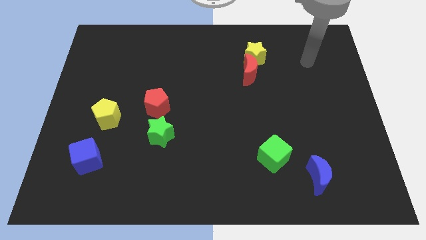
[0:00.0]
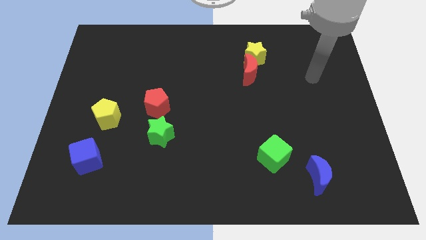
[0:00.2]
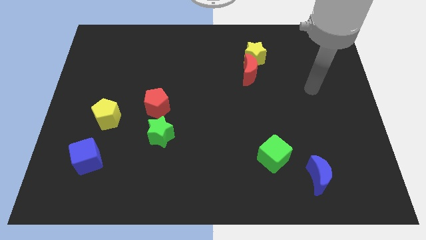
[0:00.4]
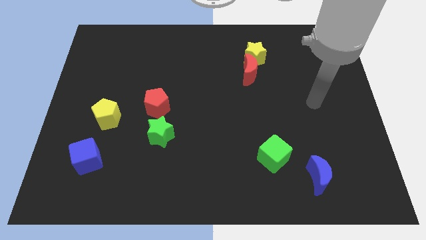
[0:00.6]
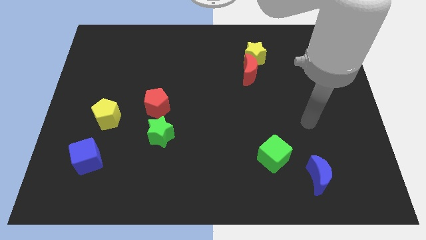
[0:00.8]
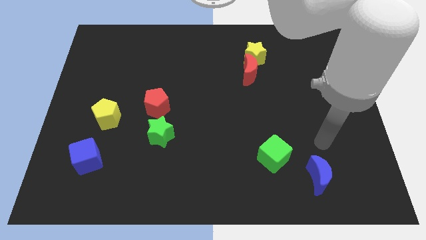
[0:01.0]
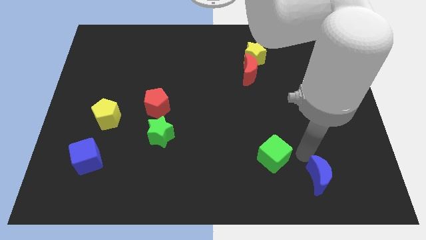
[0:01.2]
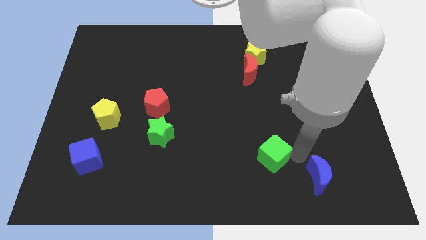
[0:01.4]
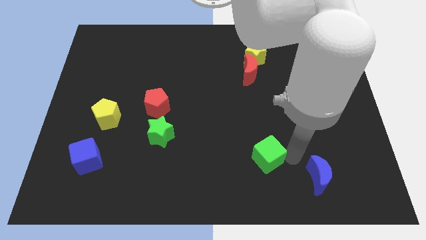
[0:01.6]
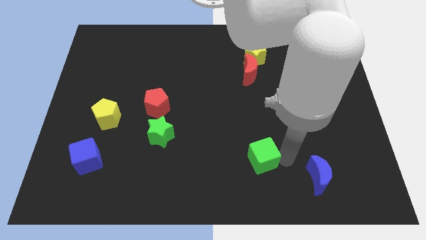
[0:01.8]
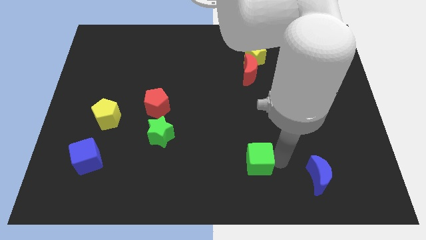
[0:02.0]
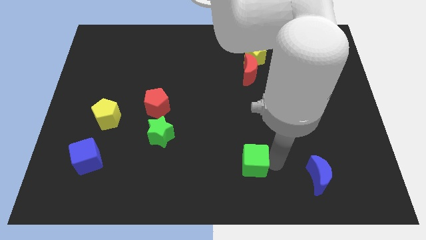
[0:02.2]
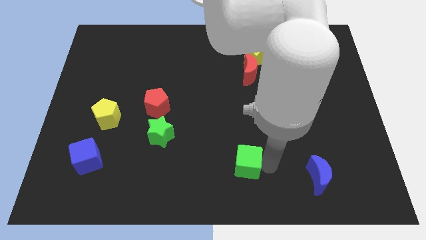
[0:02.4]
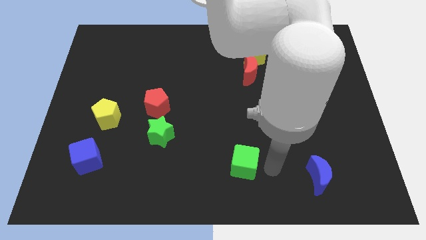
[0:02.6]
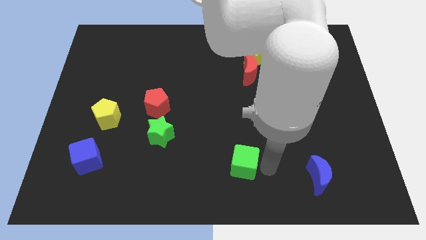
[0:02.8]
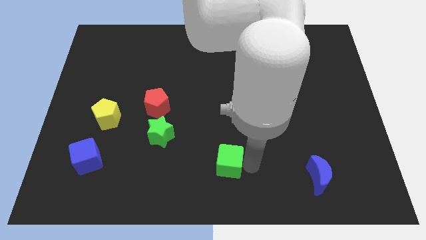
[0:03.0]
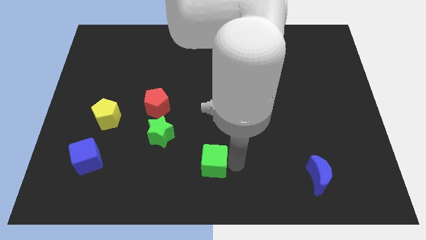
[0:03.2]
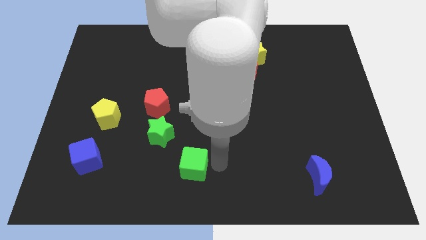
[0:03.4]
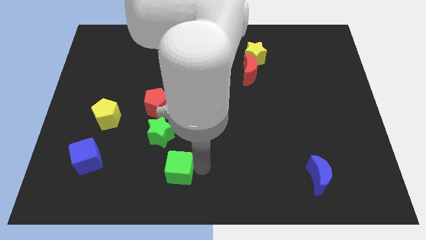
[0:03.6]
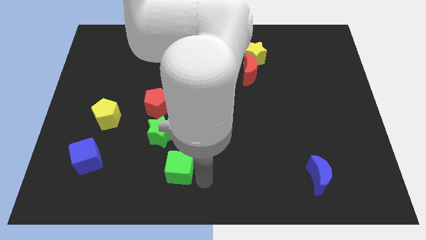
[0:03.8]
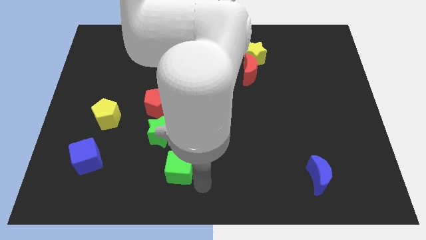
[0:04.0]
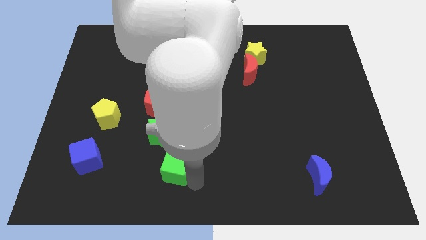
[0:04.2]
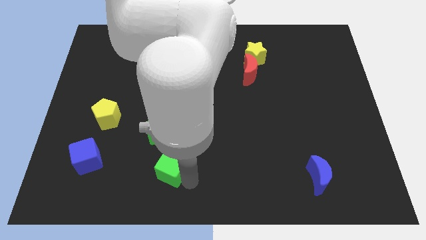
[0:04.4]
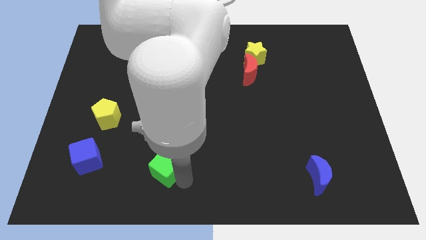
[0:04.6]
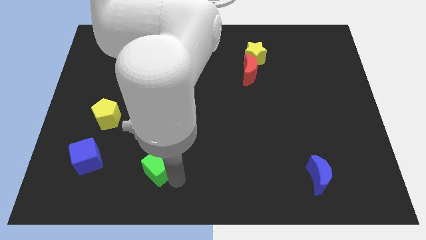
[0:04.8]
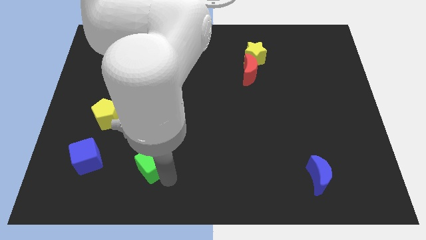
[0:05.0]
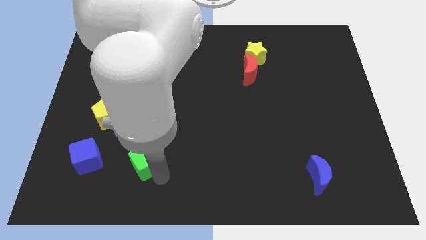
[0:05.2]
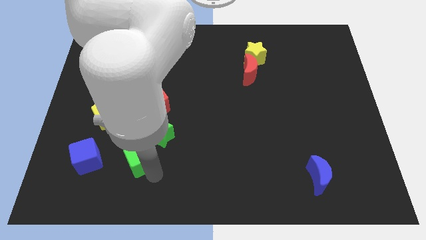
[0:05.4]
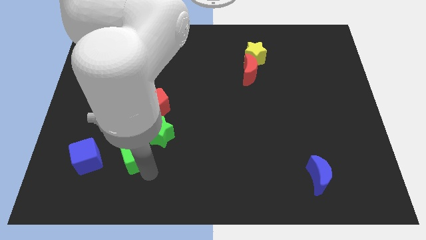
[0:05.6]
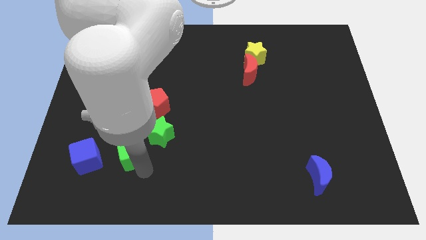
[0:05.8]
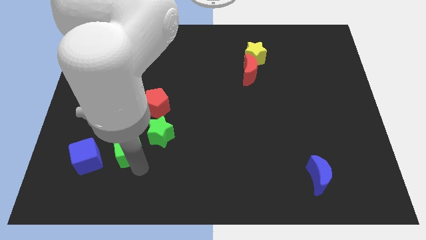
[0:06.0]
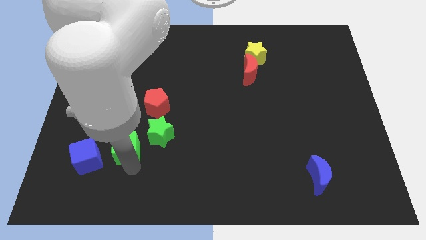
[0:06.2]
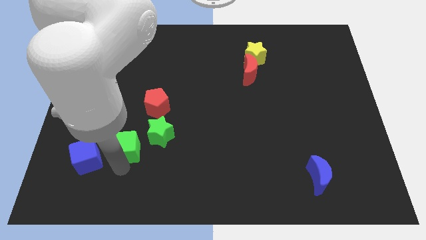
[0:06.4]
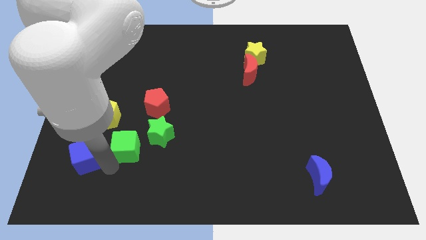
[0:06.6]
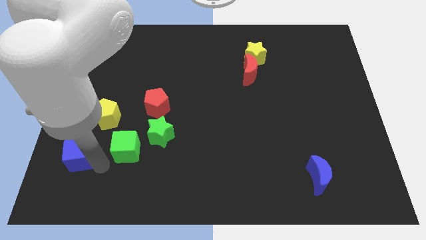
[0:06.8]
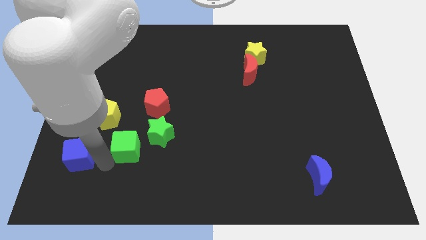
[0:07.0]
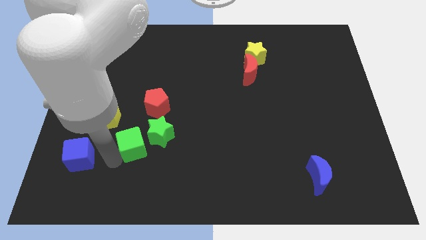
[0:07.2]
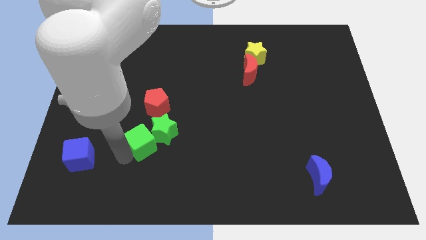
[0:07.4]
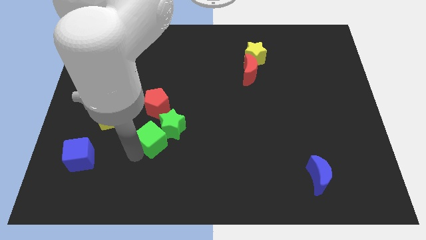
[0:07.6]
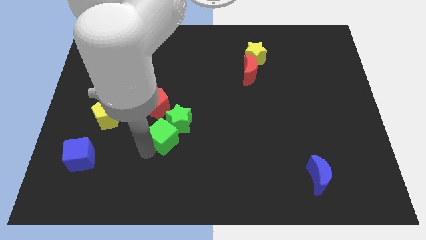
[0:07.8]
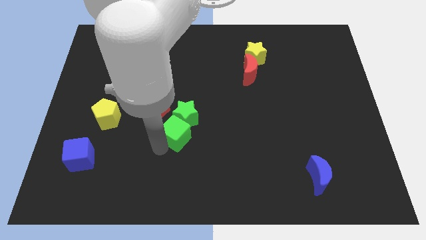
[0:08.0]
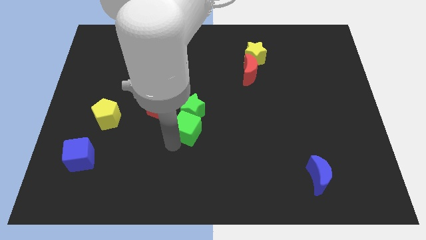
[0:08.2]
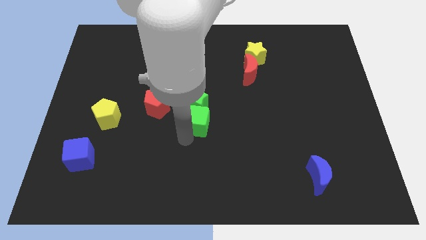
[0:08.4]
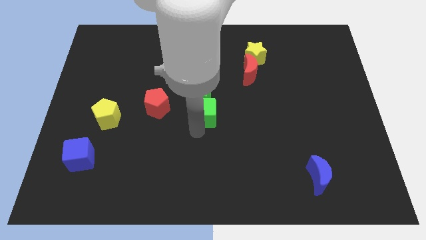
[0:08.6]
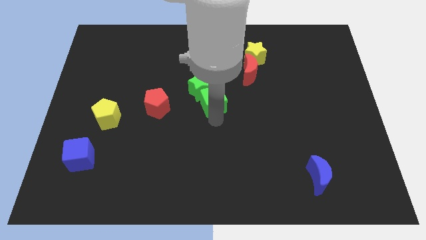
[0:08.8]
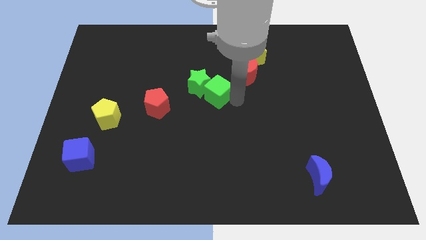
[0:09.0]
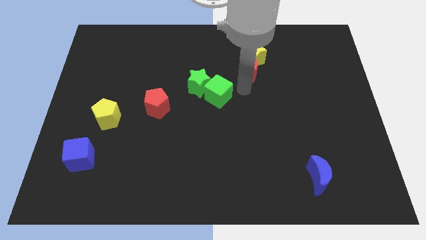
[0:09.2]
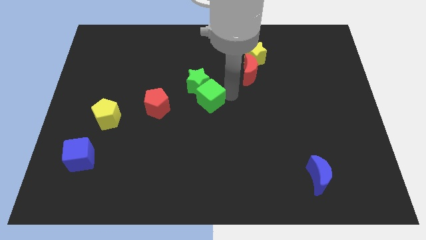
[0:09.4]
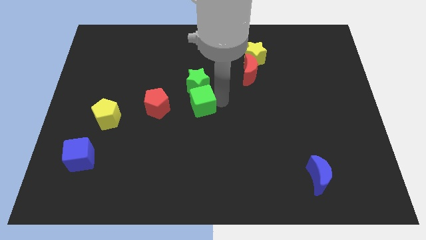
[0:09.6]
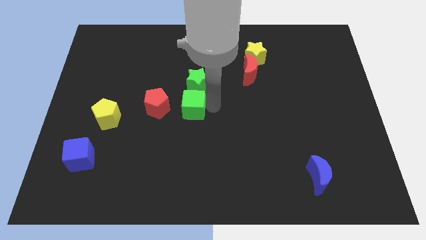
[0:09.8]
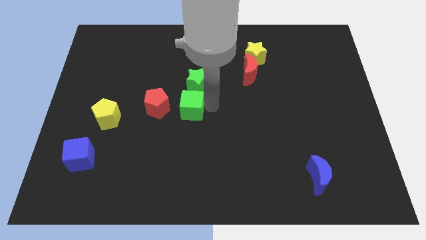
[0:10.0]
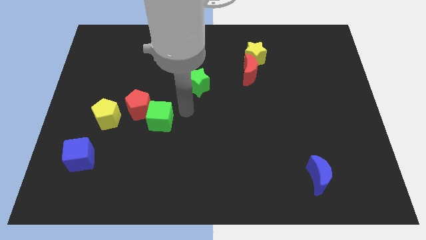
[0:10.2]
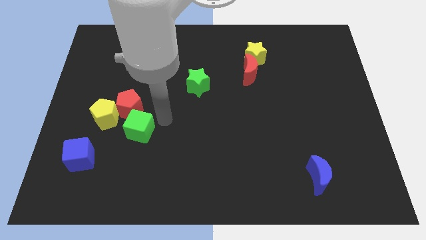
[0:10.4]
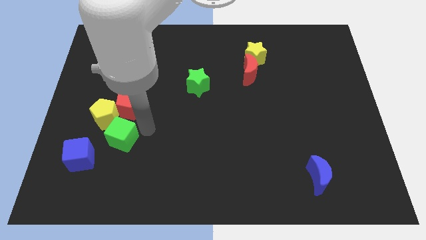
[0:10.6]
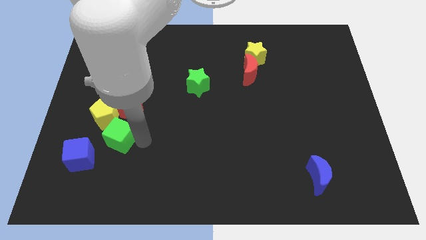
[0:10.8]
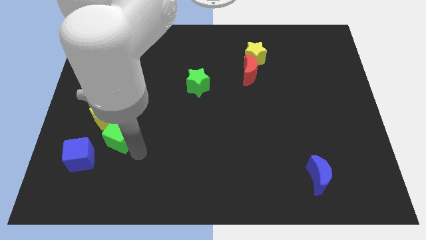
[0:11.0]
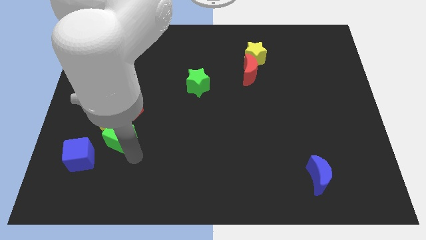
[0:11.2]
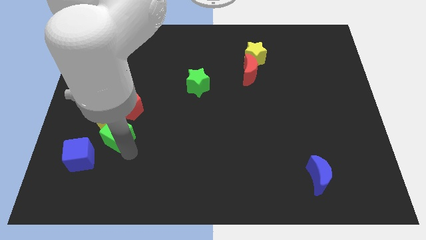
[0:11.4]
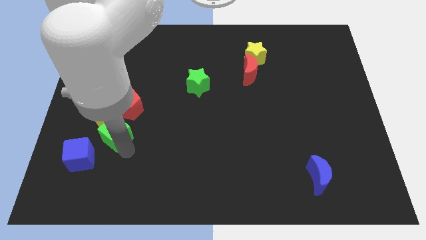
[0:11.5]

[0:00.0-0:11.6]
put the green cube close to the yellow pentagon

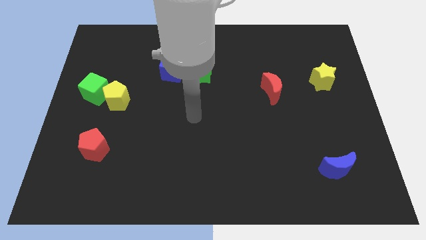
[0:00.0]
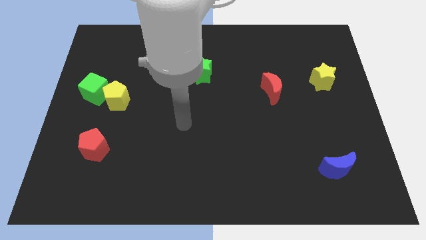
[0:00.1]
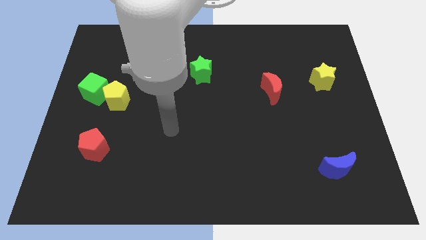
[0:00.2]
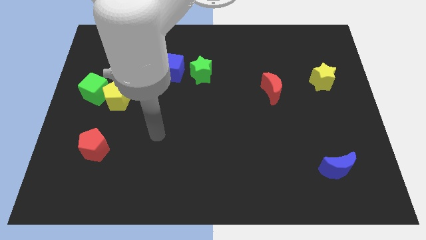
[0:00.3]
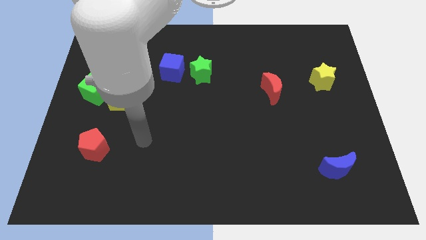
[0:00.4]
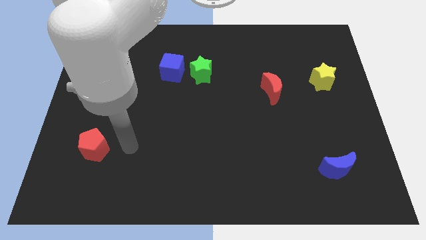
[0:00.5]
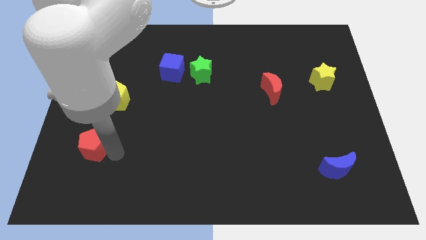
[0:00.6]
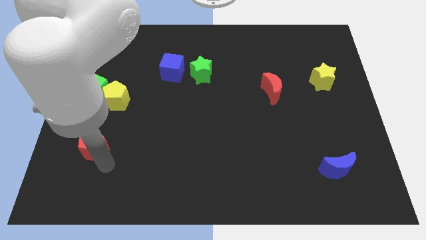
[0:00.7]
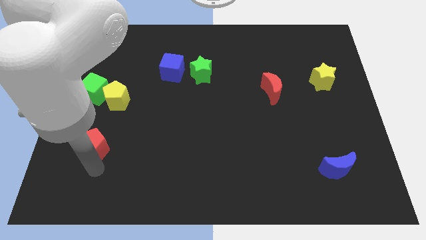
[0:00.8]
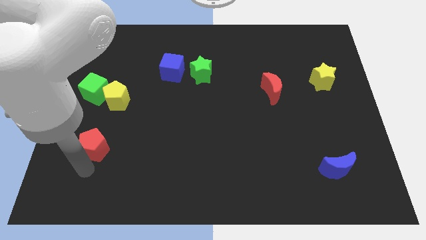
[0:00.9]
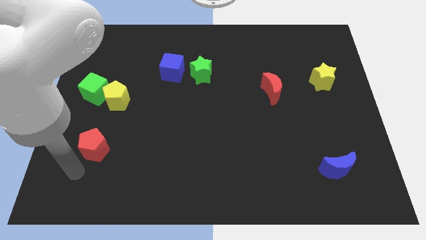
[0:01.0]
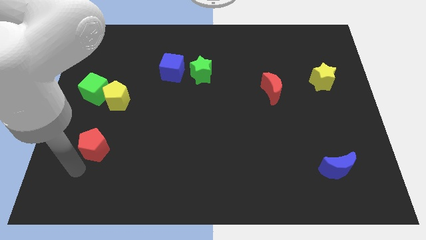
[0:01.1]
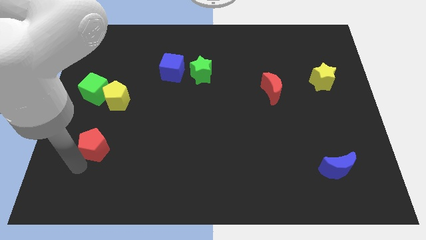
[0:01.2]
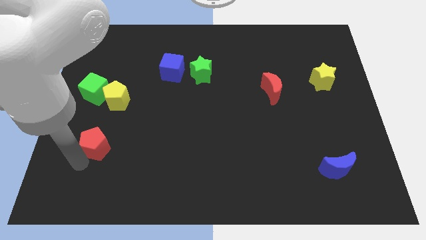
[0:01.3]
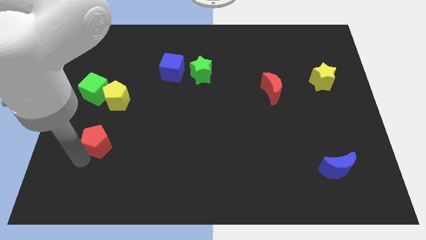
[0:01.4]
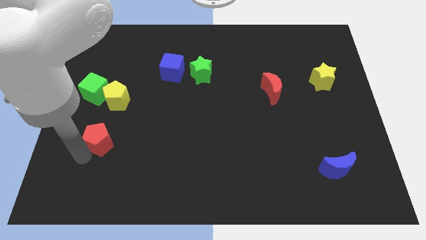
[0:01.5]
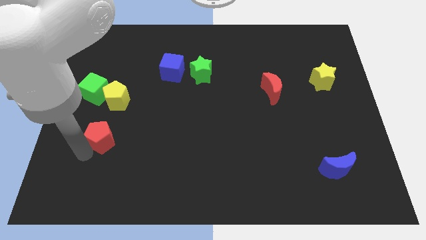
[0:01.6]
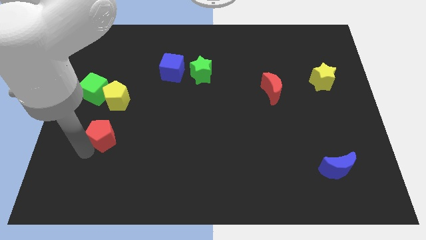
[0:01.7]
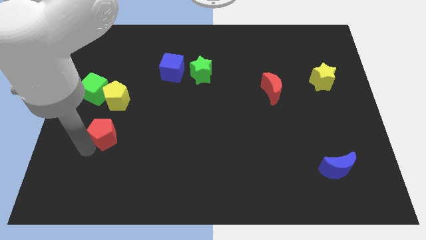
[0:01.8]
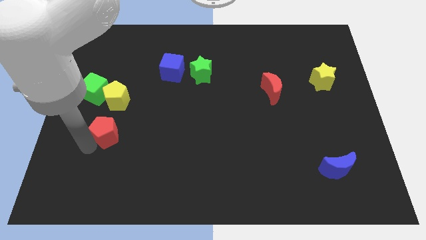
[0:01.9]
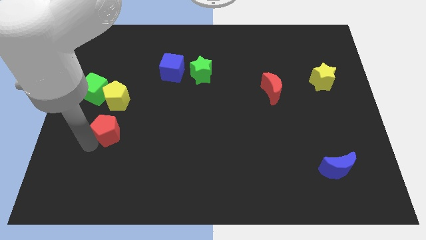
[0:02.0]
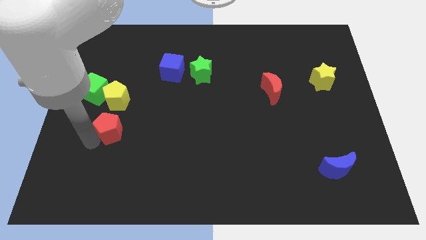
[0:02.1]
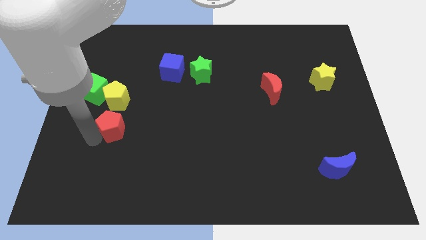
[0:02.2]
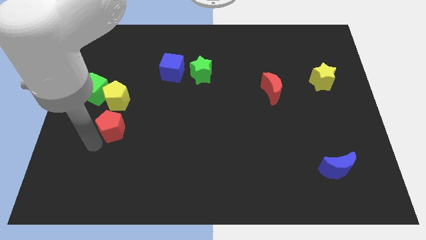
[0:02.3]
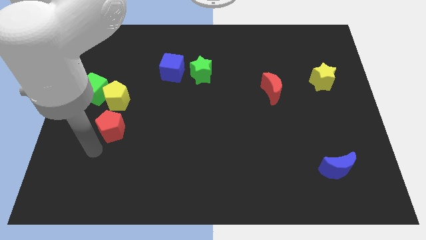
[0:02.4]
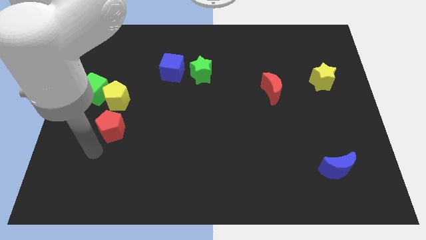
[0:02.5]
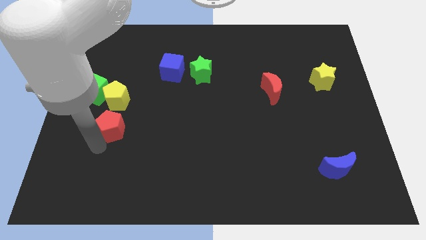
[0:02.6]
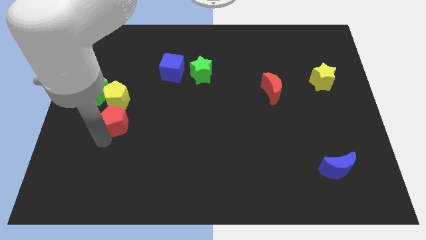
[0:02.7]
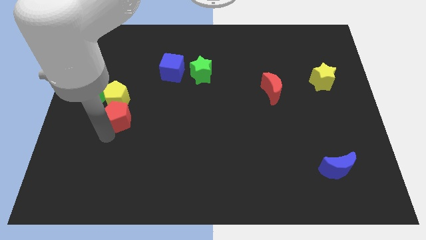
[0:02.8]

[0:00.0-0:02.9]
slide the red pentagon towards the yellow pentagon
